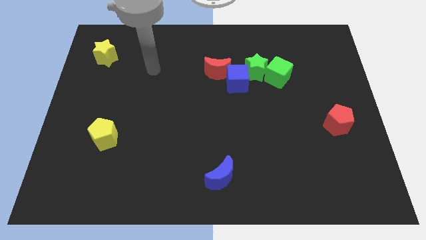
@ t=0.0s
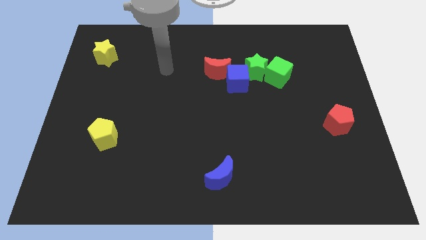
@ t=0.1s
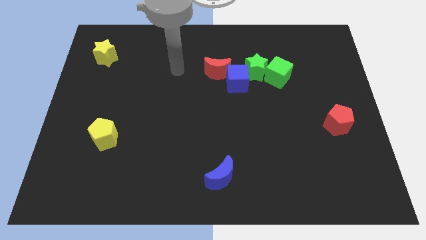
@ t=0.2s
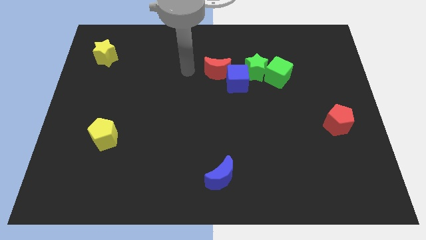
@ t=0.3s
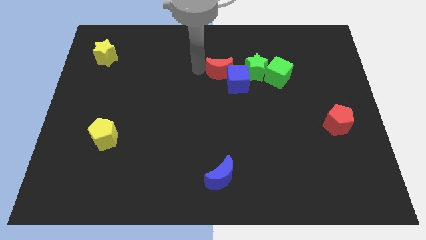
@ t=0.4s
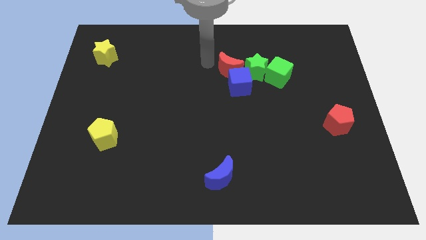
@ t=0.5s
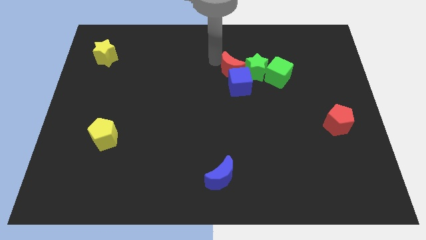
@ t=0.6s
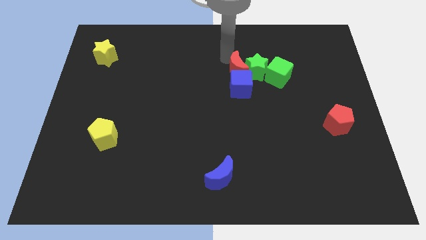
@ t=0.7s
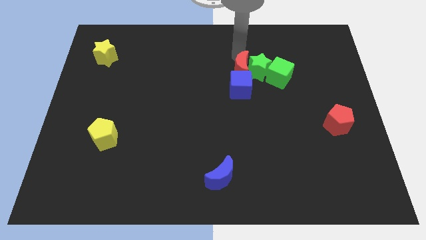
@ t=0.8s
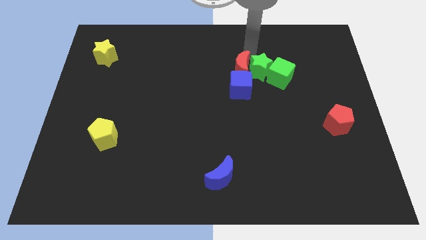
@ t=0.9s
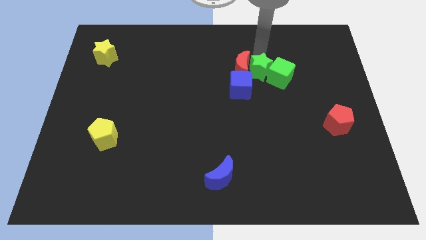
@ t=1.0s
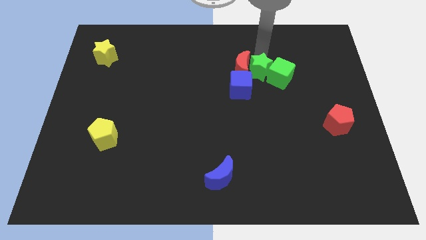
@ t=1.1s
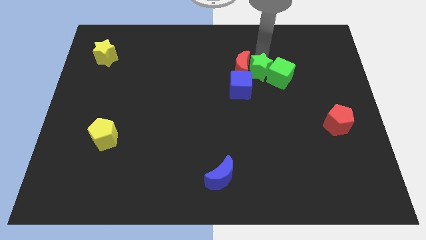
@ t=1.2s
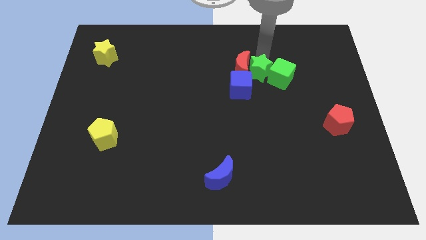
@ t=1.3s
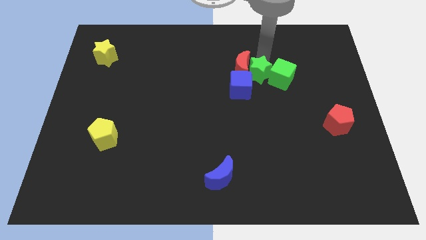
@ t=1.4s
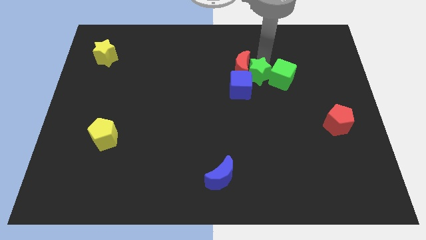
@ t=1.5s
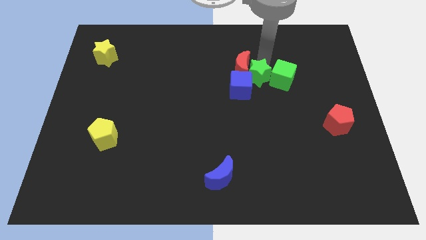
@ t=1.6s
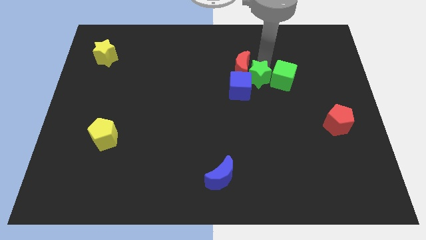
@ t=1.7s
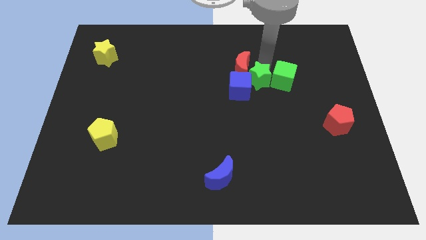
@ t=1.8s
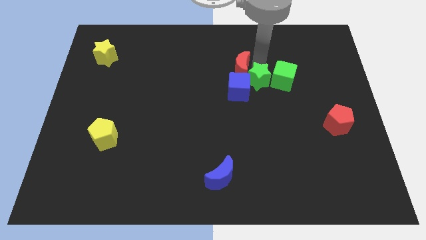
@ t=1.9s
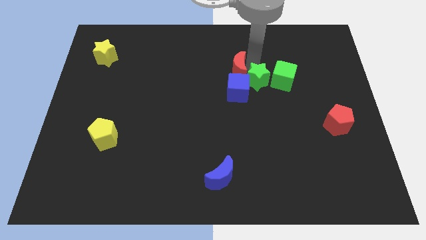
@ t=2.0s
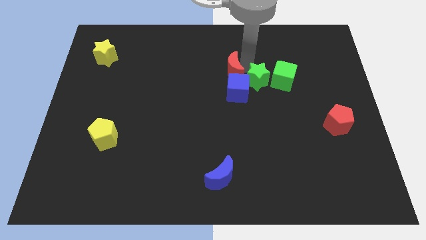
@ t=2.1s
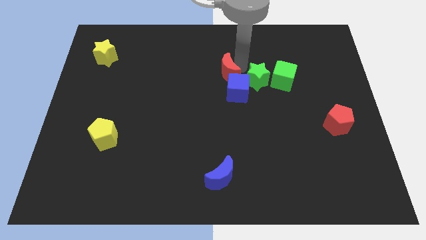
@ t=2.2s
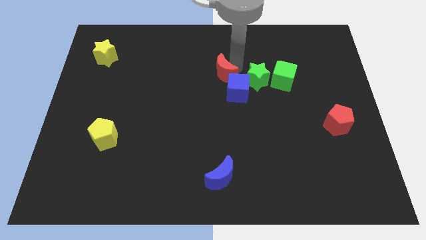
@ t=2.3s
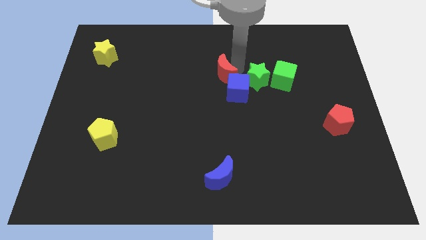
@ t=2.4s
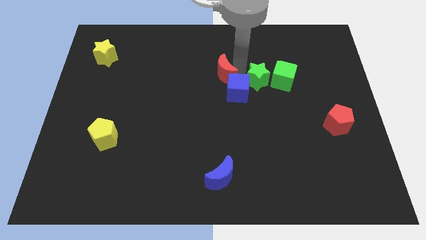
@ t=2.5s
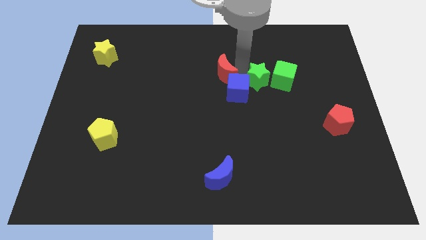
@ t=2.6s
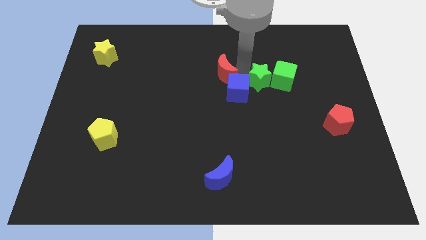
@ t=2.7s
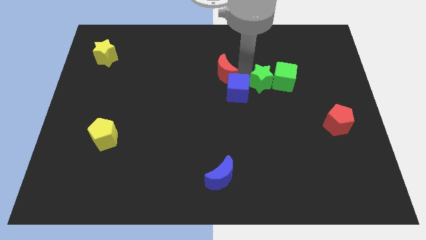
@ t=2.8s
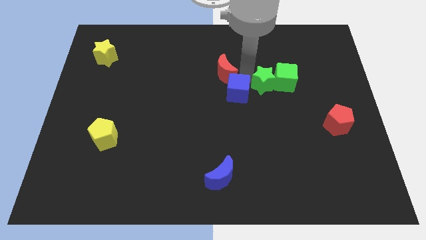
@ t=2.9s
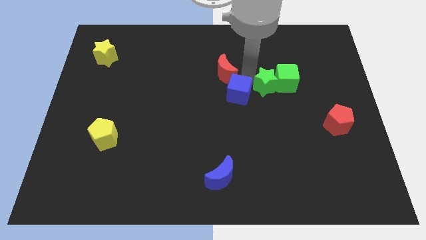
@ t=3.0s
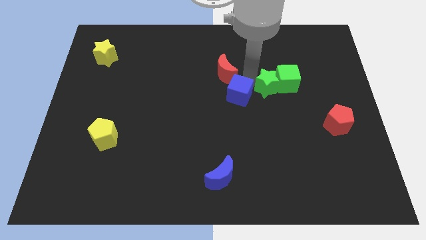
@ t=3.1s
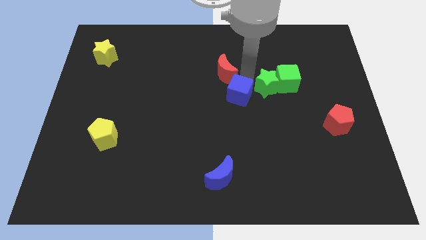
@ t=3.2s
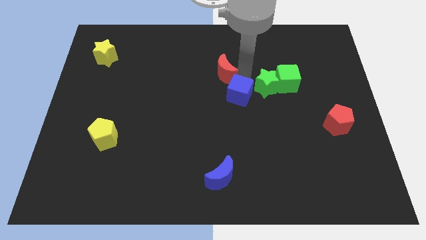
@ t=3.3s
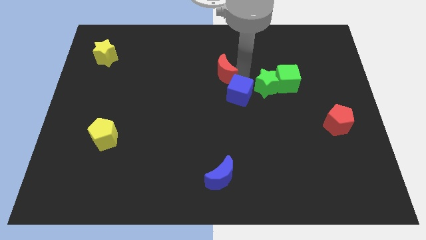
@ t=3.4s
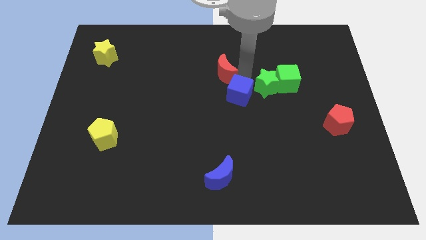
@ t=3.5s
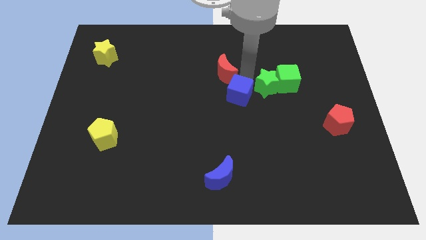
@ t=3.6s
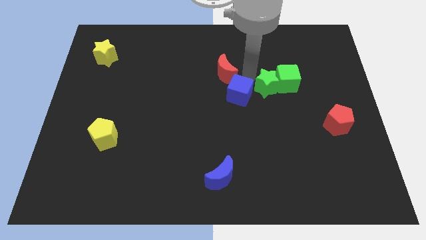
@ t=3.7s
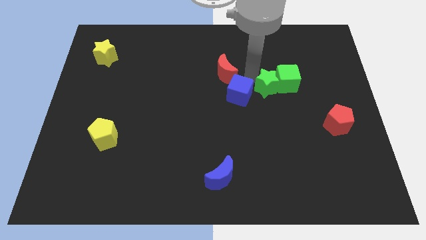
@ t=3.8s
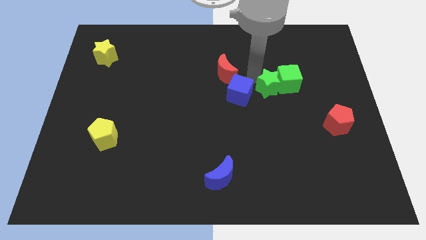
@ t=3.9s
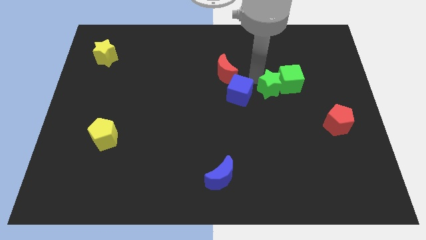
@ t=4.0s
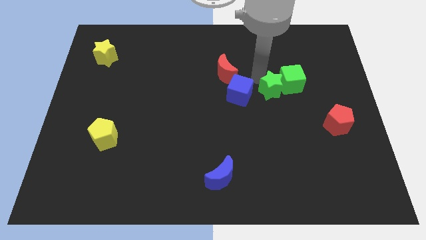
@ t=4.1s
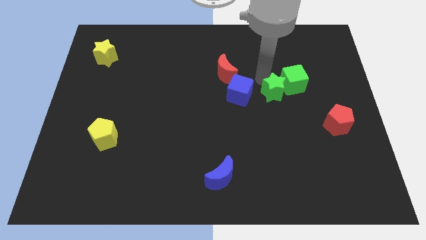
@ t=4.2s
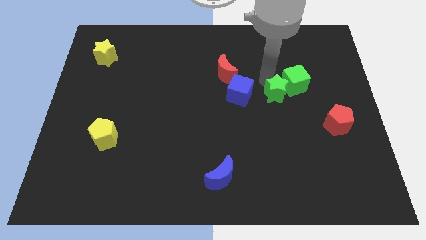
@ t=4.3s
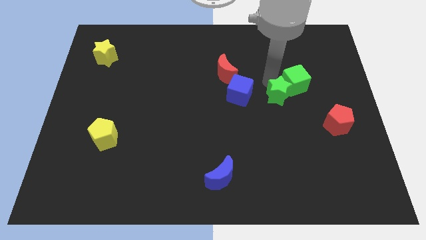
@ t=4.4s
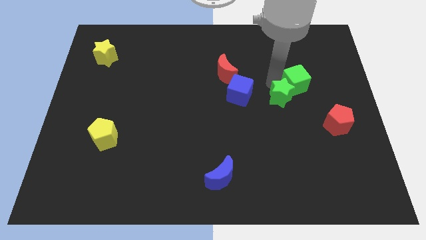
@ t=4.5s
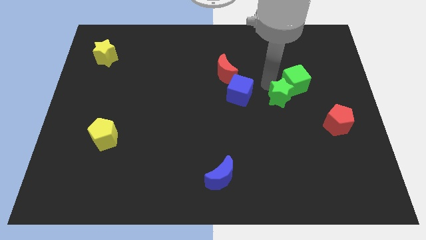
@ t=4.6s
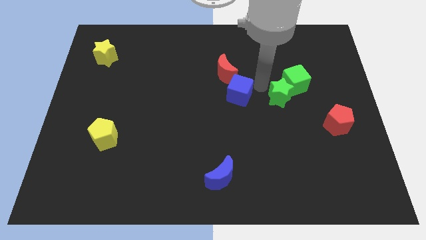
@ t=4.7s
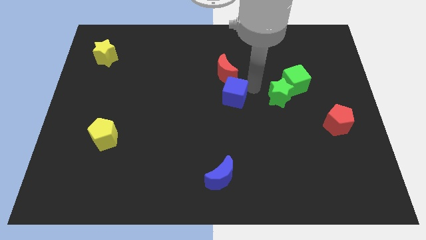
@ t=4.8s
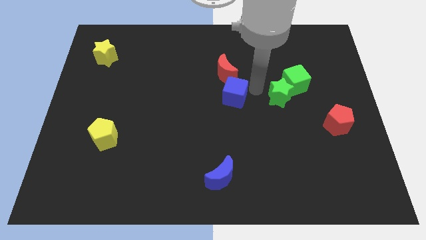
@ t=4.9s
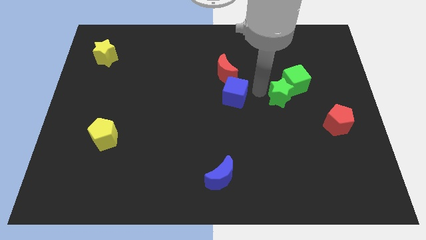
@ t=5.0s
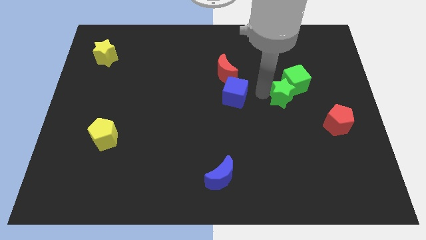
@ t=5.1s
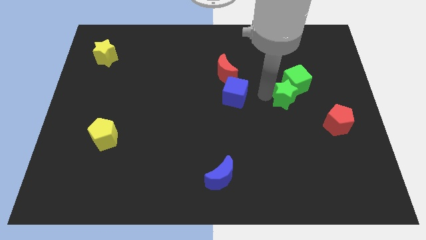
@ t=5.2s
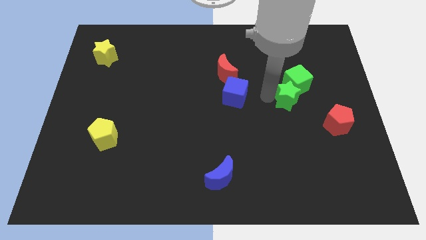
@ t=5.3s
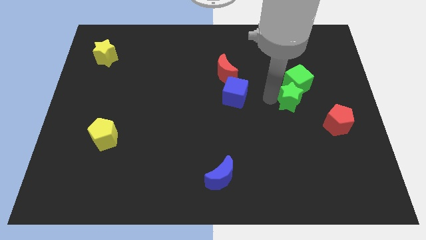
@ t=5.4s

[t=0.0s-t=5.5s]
move the green star diagonally up and to the left of the red pentagon

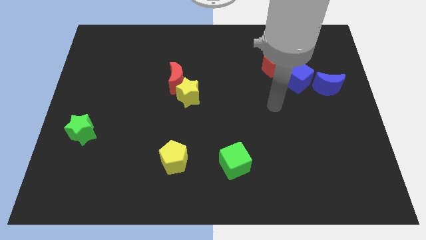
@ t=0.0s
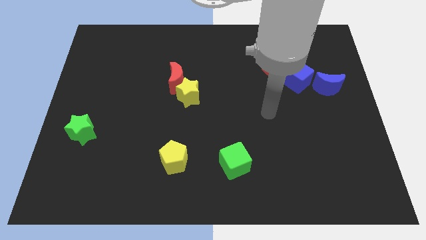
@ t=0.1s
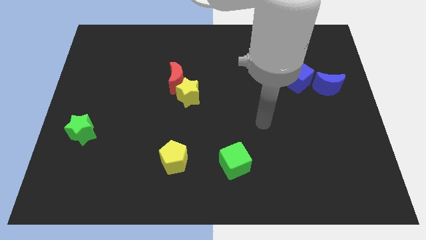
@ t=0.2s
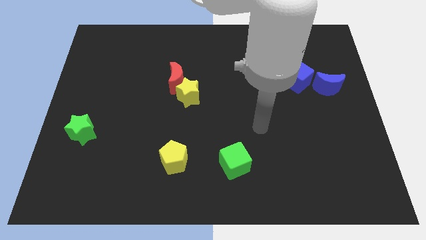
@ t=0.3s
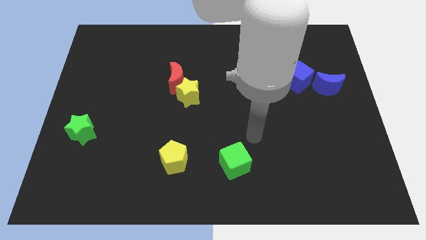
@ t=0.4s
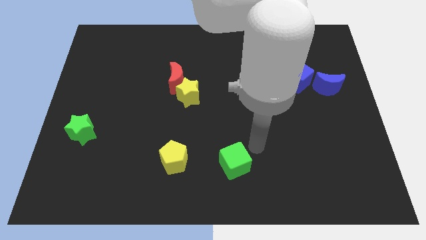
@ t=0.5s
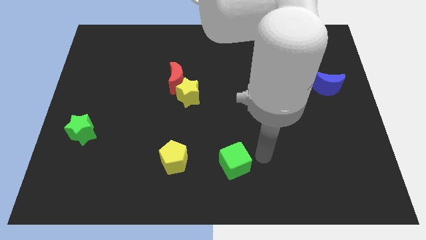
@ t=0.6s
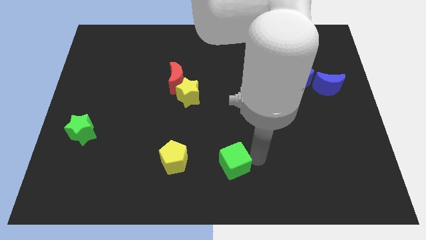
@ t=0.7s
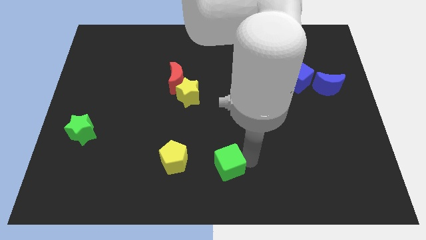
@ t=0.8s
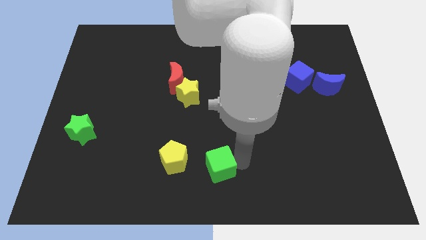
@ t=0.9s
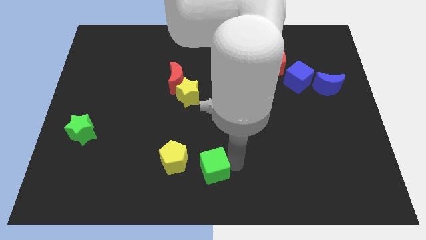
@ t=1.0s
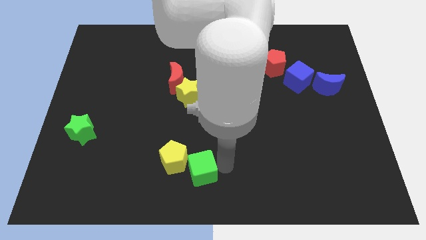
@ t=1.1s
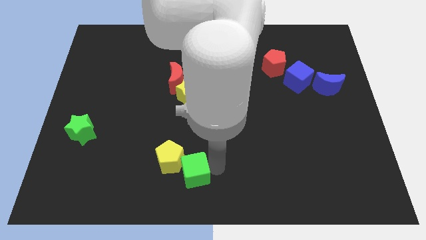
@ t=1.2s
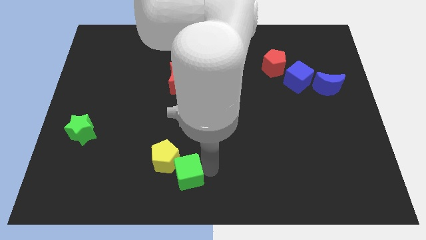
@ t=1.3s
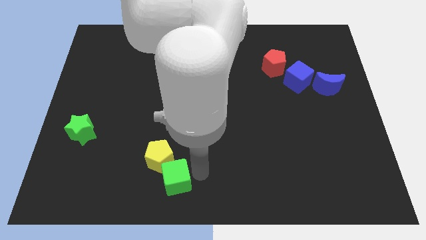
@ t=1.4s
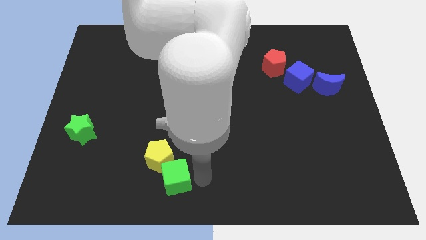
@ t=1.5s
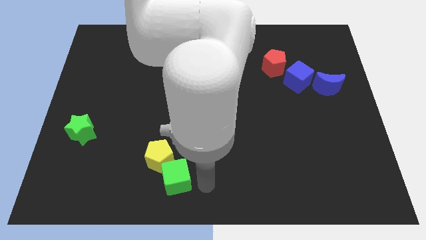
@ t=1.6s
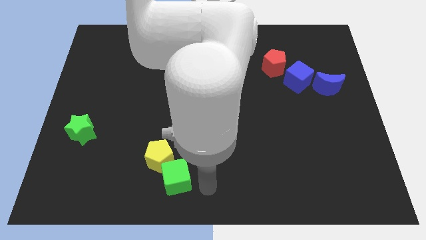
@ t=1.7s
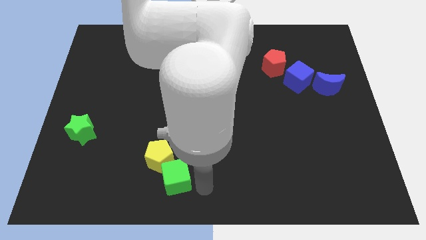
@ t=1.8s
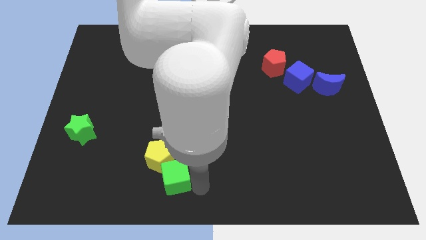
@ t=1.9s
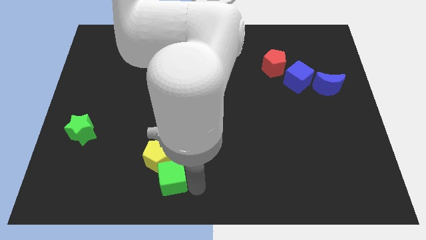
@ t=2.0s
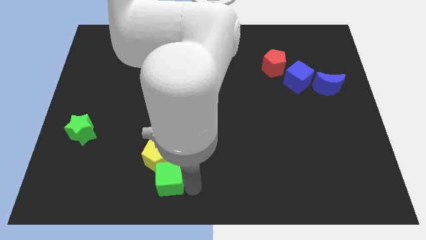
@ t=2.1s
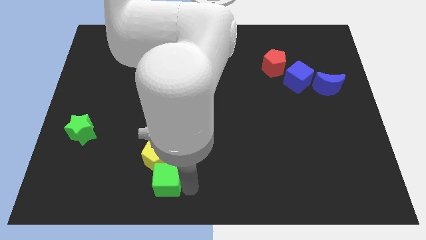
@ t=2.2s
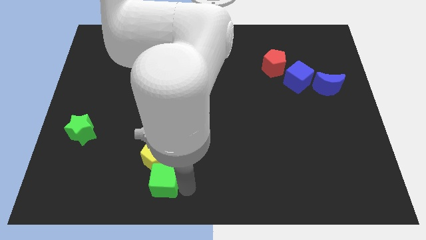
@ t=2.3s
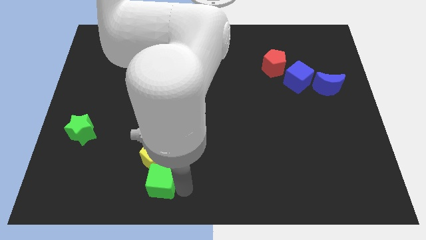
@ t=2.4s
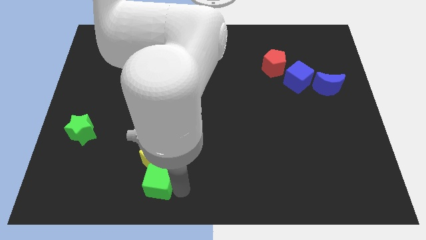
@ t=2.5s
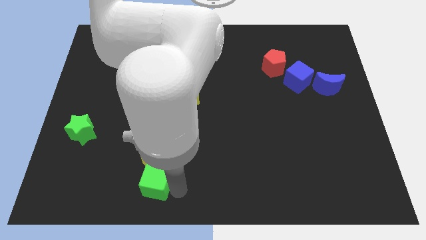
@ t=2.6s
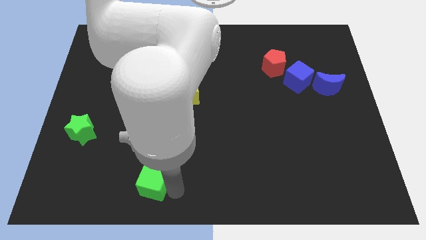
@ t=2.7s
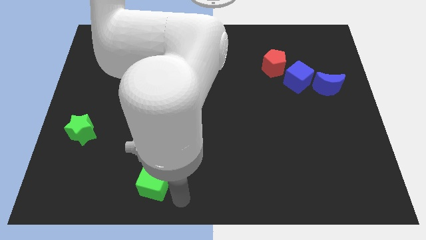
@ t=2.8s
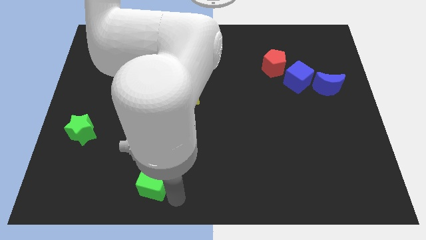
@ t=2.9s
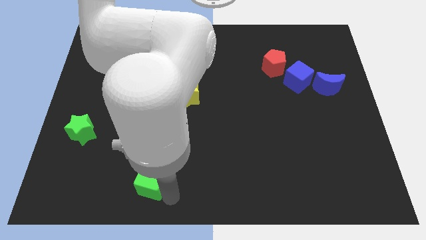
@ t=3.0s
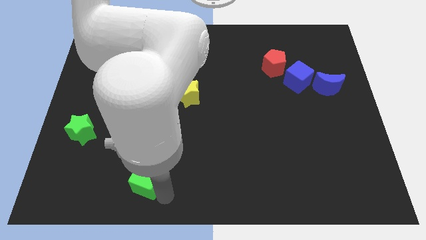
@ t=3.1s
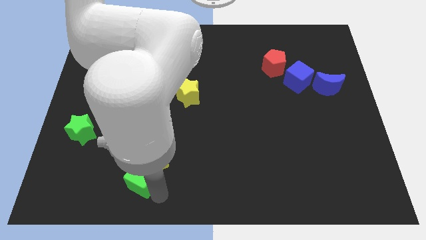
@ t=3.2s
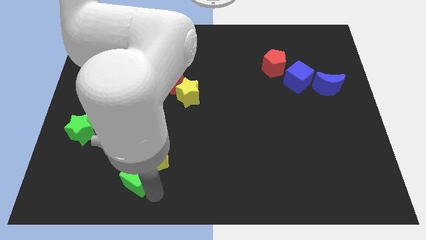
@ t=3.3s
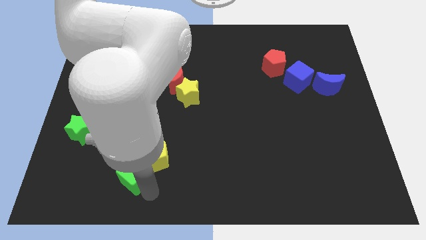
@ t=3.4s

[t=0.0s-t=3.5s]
put the green cube just left of the yellow pentagon
